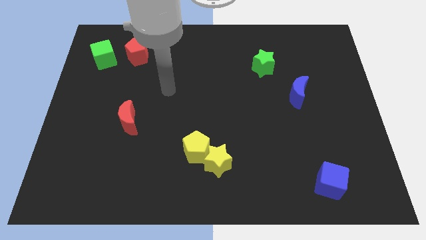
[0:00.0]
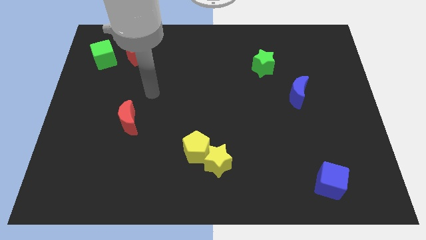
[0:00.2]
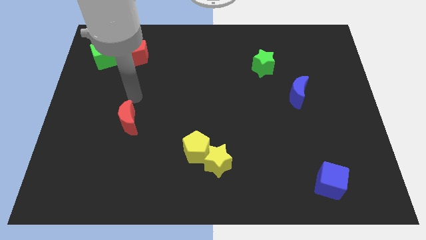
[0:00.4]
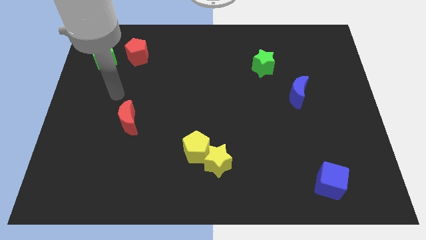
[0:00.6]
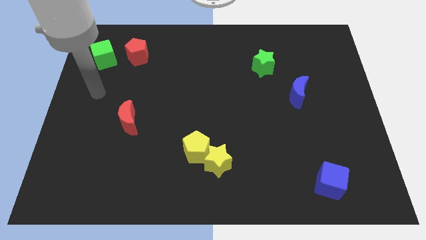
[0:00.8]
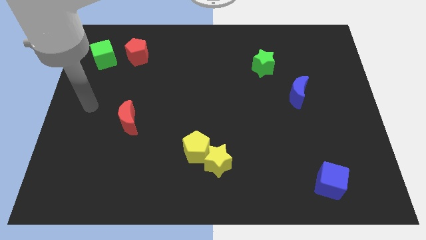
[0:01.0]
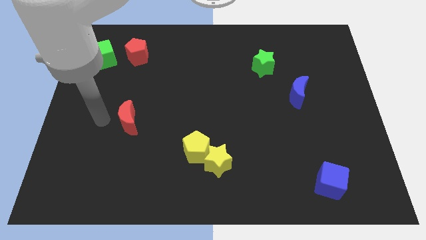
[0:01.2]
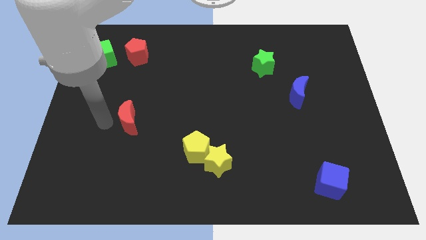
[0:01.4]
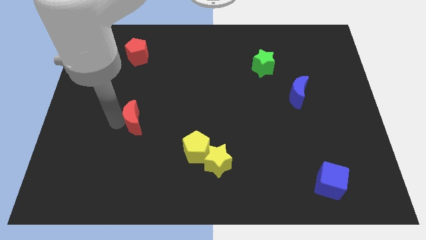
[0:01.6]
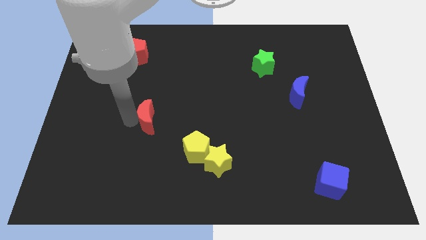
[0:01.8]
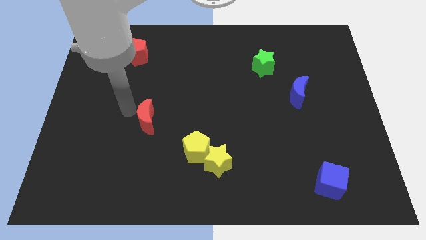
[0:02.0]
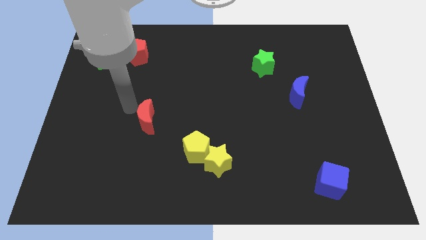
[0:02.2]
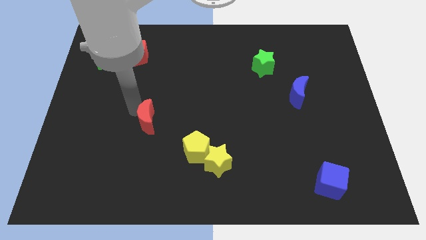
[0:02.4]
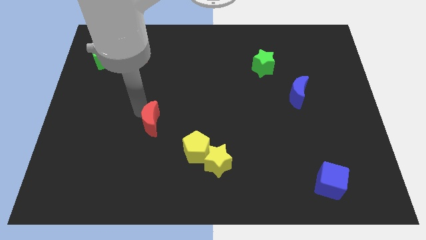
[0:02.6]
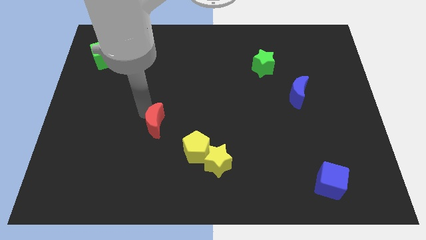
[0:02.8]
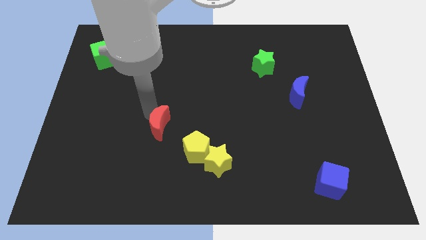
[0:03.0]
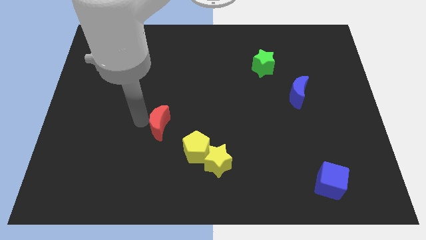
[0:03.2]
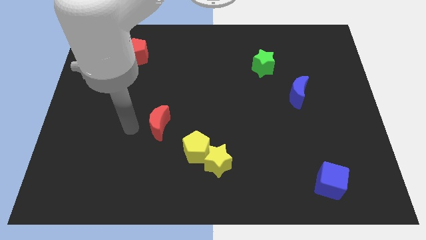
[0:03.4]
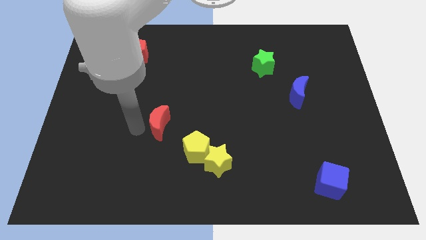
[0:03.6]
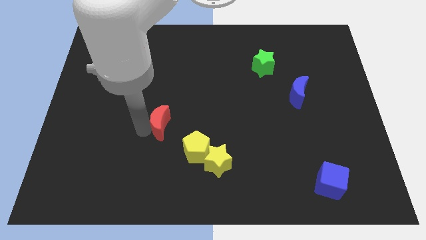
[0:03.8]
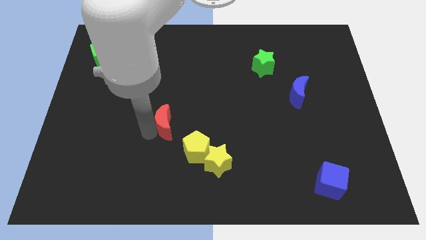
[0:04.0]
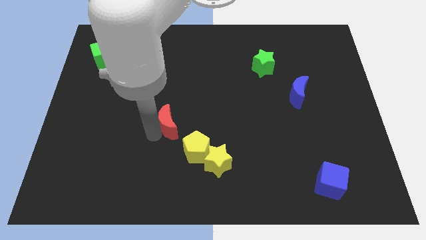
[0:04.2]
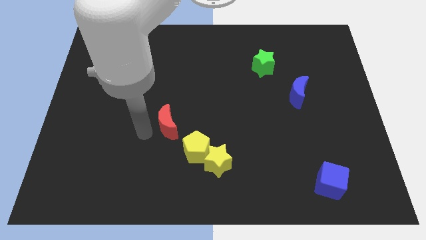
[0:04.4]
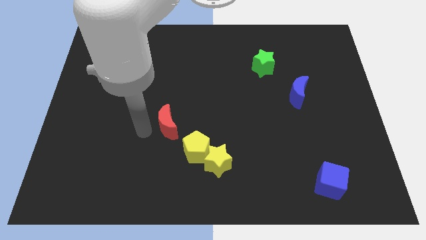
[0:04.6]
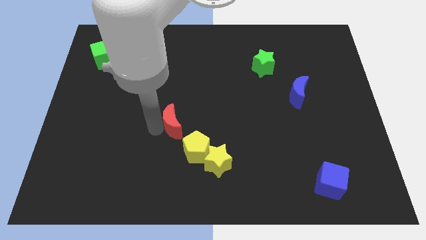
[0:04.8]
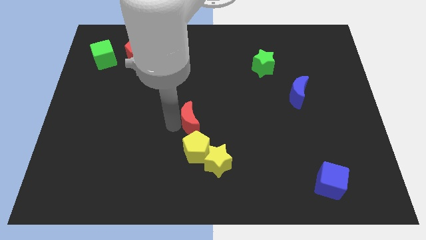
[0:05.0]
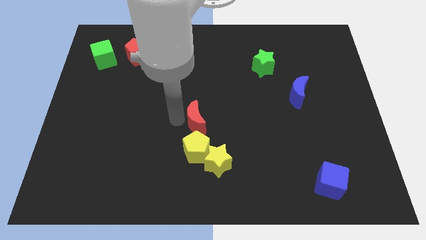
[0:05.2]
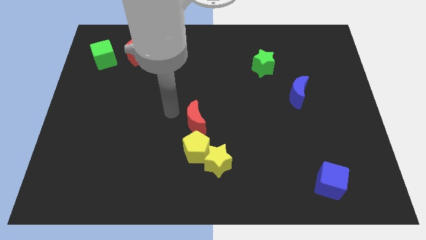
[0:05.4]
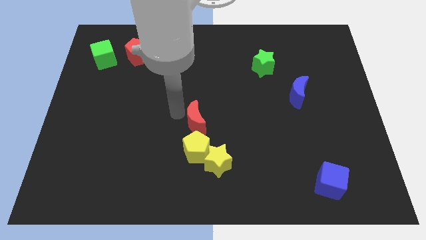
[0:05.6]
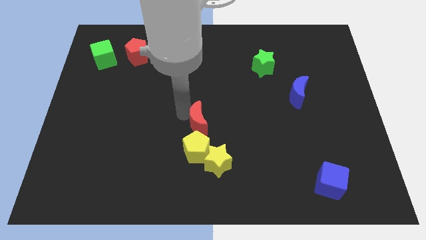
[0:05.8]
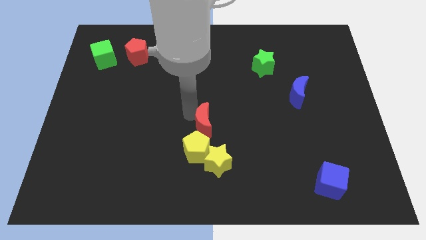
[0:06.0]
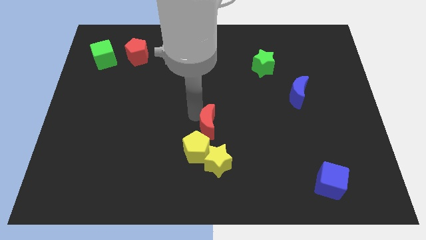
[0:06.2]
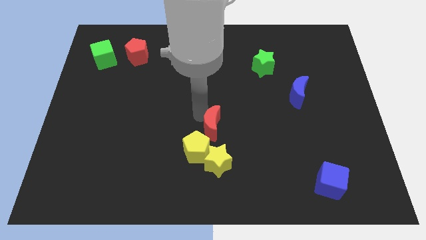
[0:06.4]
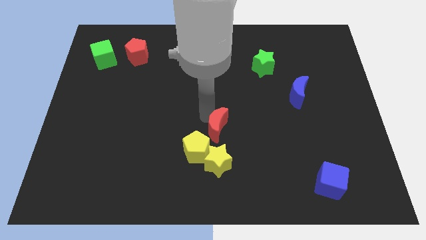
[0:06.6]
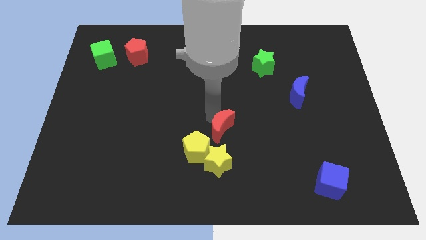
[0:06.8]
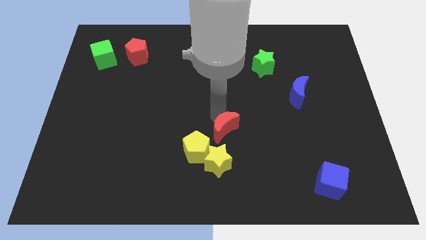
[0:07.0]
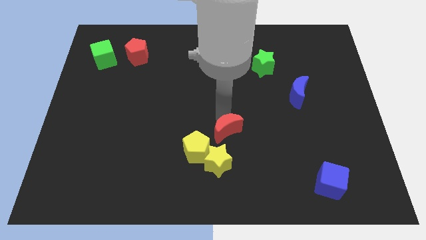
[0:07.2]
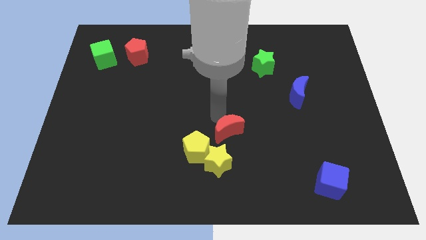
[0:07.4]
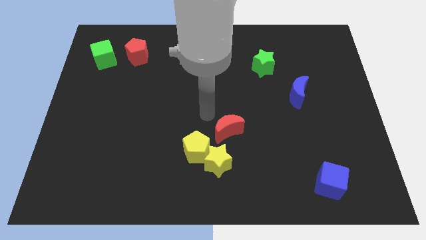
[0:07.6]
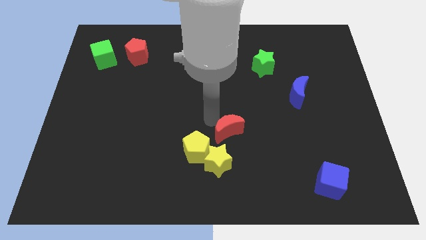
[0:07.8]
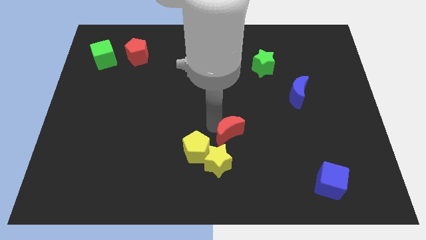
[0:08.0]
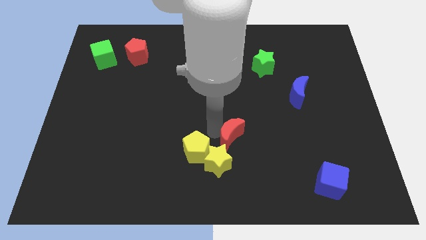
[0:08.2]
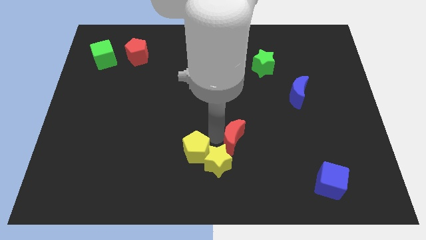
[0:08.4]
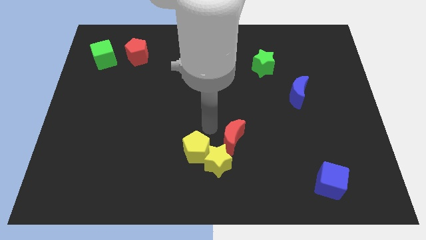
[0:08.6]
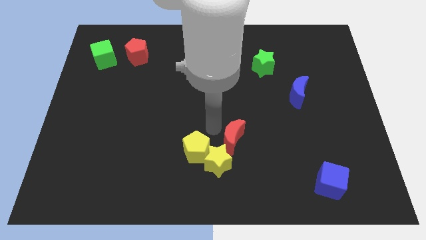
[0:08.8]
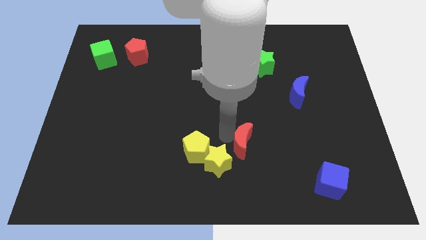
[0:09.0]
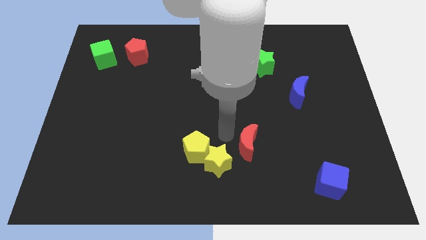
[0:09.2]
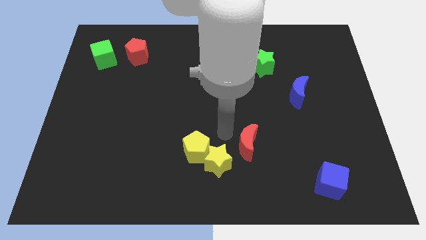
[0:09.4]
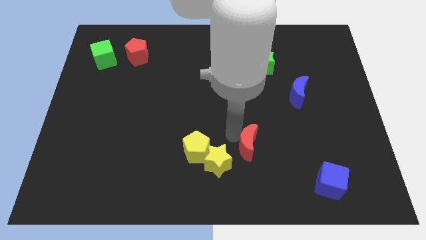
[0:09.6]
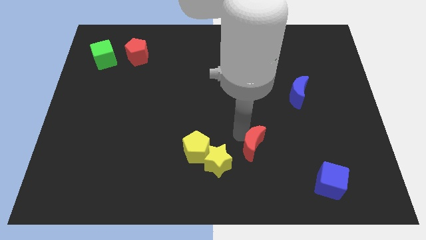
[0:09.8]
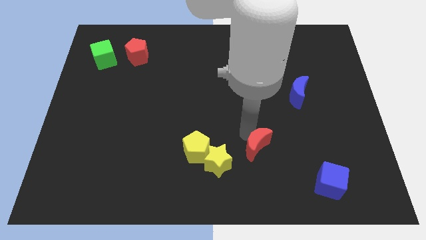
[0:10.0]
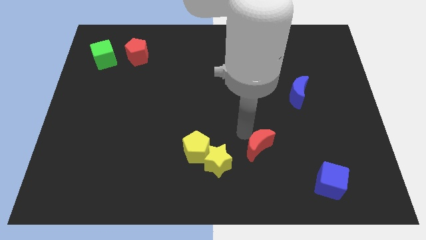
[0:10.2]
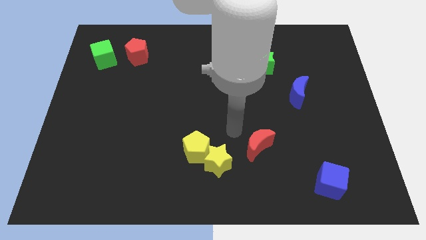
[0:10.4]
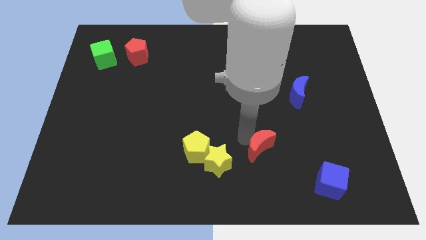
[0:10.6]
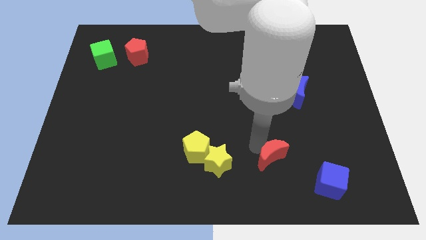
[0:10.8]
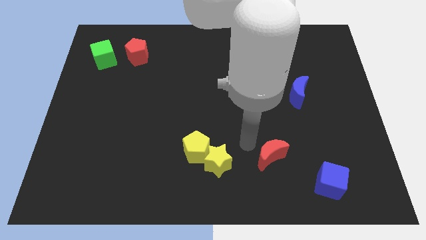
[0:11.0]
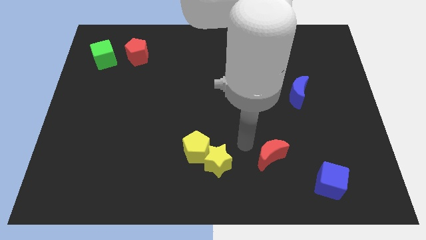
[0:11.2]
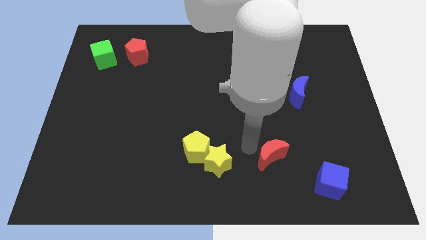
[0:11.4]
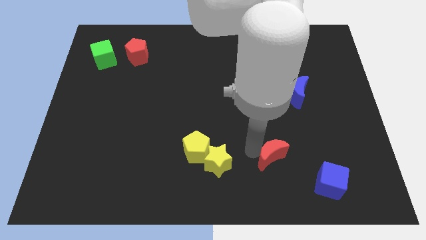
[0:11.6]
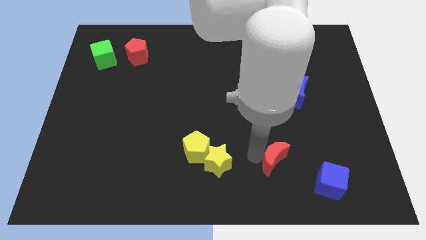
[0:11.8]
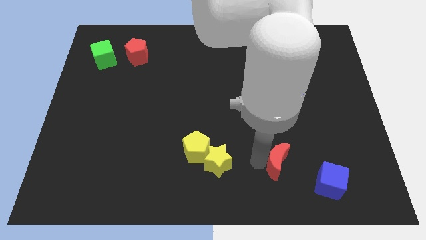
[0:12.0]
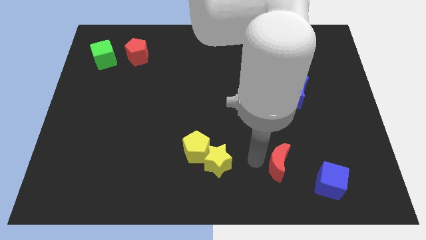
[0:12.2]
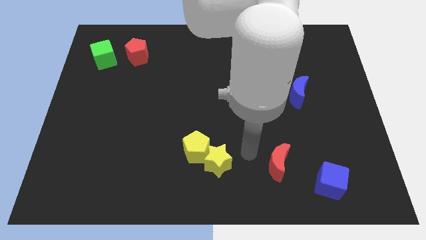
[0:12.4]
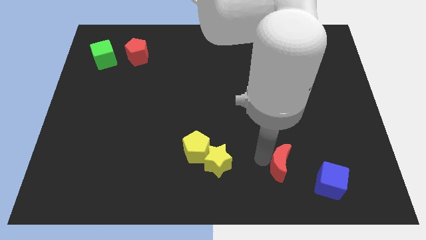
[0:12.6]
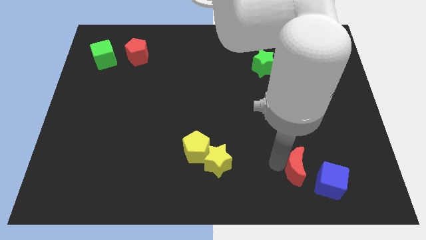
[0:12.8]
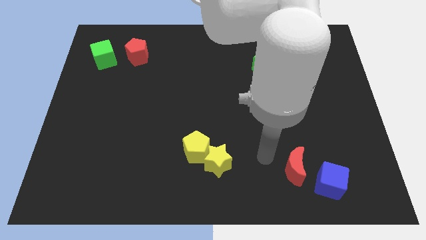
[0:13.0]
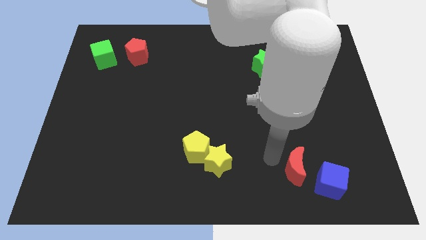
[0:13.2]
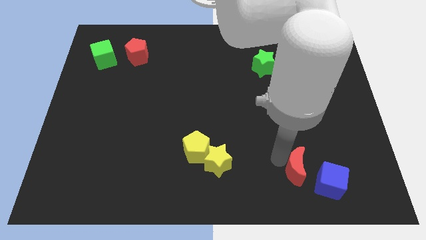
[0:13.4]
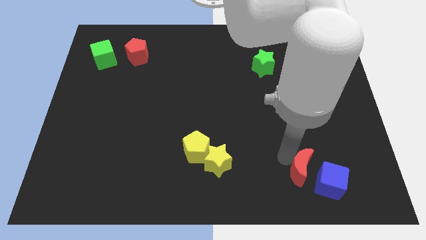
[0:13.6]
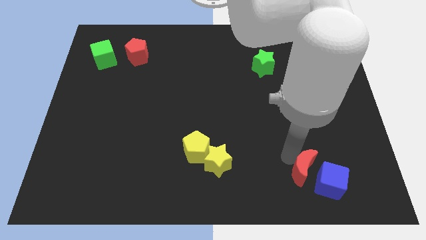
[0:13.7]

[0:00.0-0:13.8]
move the red moon close to the blue cube
